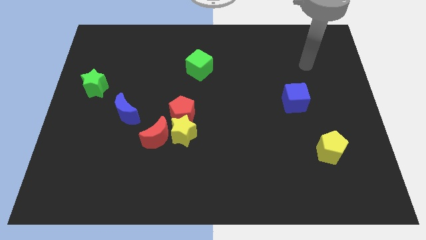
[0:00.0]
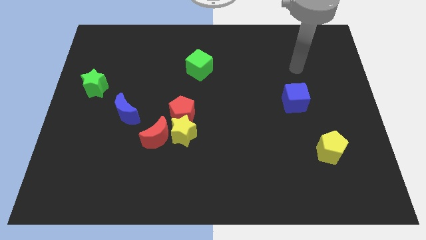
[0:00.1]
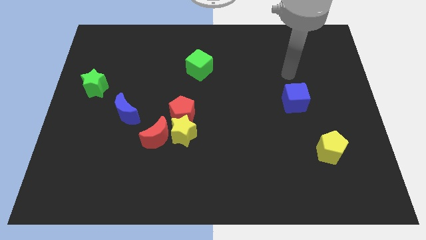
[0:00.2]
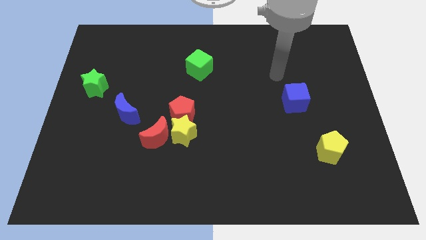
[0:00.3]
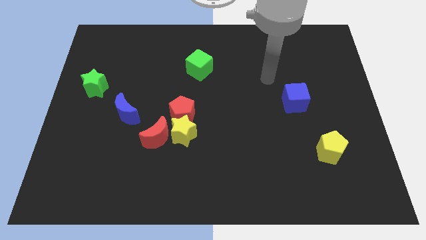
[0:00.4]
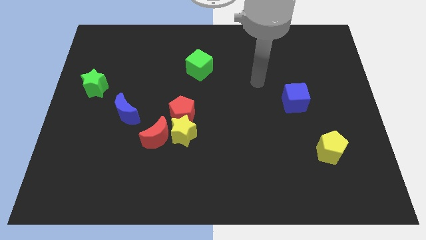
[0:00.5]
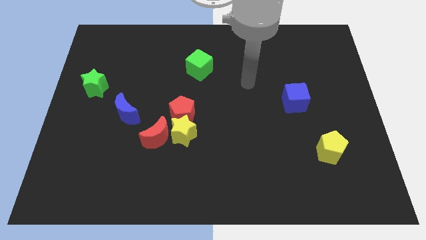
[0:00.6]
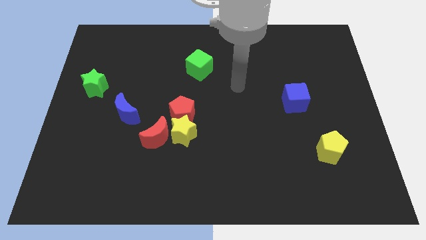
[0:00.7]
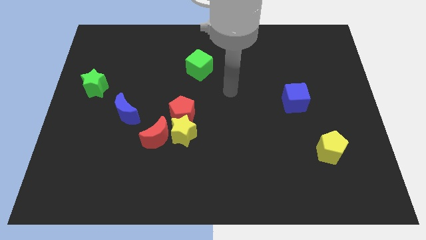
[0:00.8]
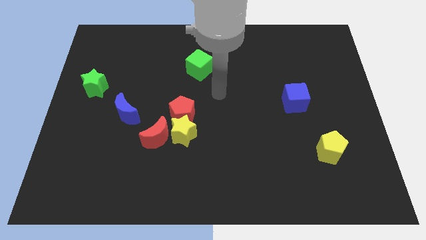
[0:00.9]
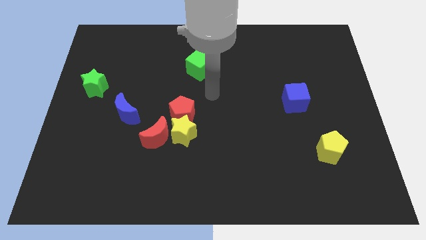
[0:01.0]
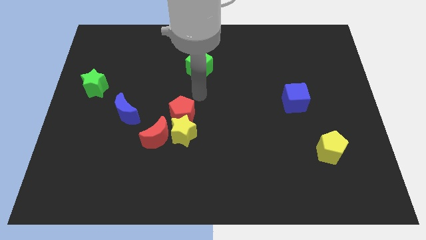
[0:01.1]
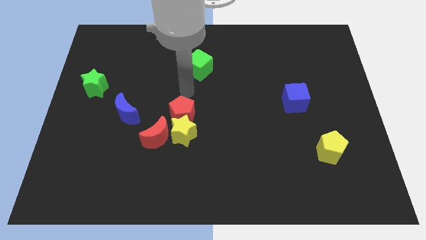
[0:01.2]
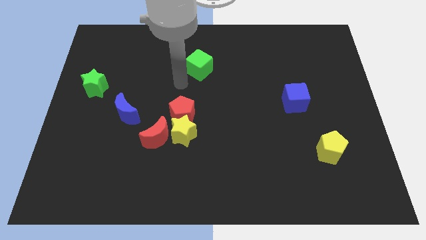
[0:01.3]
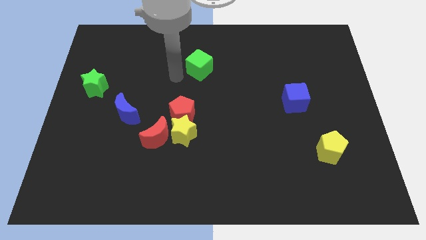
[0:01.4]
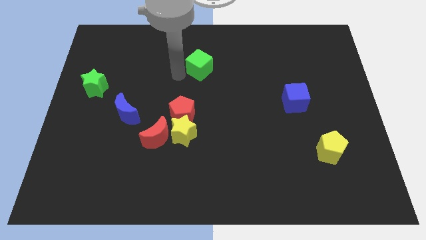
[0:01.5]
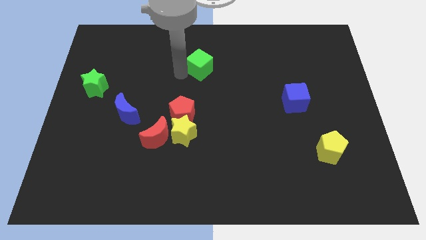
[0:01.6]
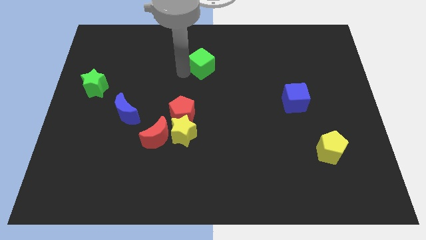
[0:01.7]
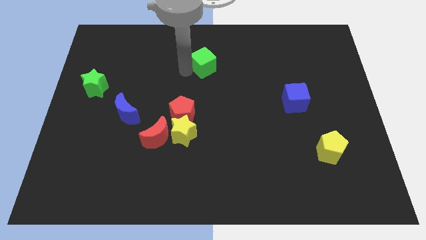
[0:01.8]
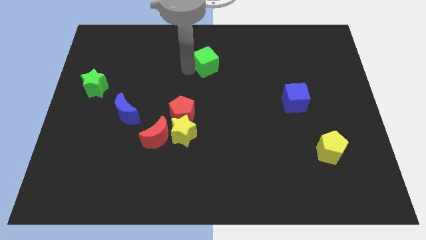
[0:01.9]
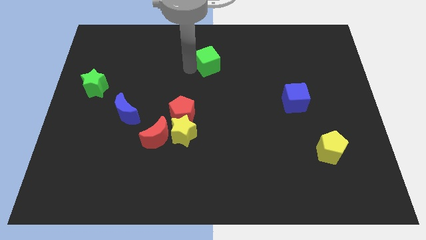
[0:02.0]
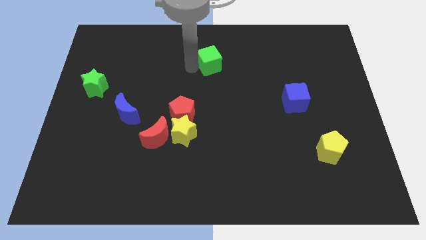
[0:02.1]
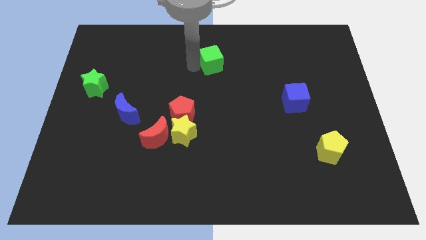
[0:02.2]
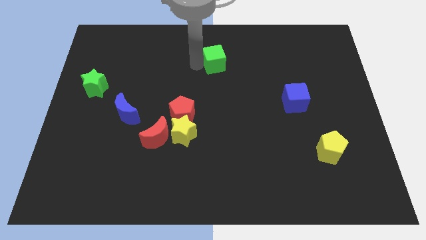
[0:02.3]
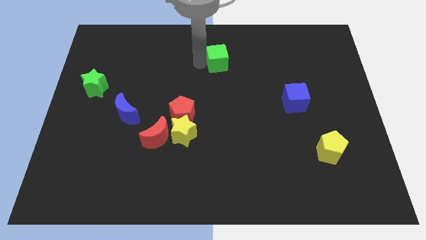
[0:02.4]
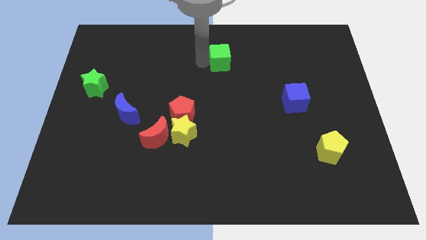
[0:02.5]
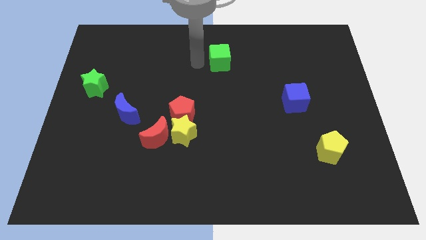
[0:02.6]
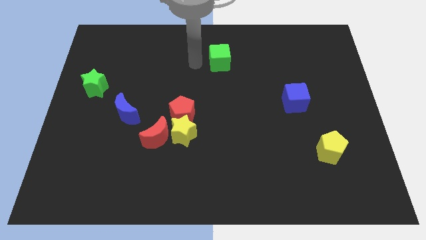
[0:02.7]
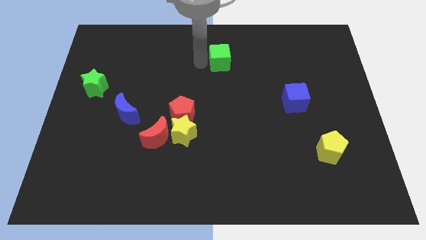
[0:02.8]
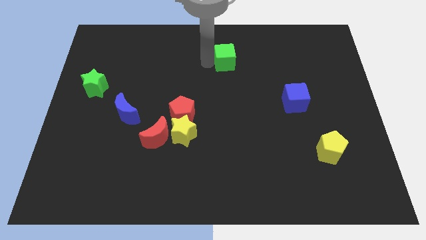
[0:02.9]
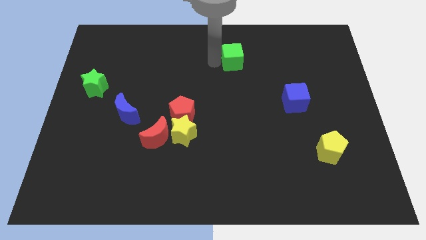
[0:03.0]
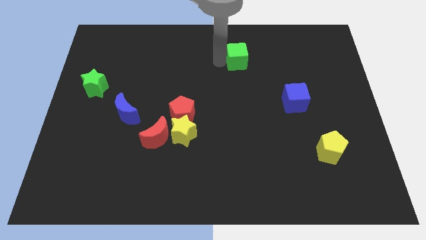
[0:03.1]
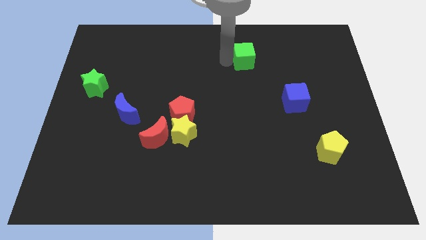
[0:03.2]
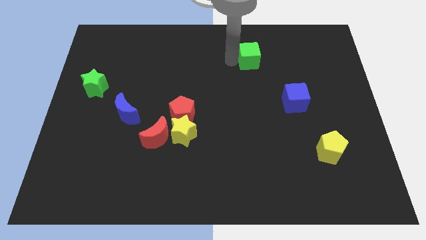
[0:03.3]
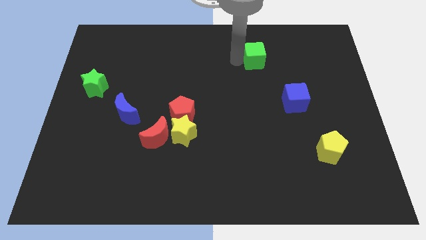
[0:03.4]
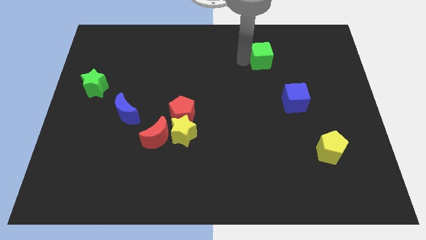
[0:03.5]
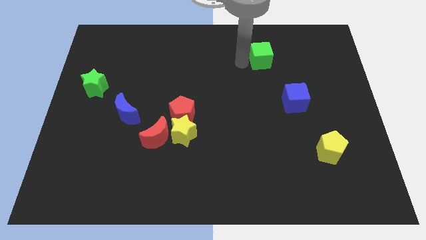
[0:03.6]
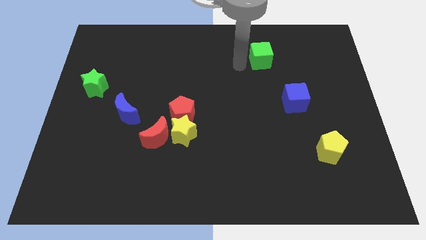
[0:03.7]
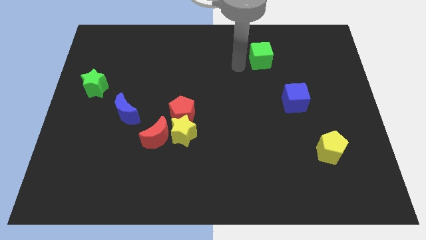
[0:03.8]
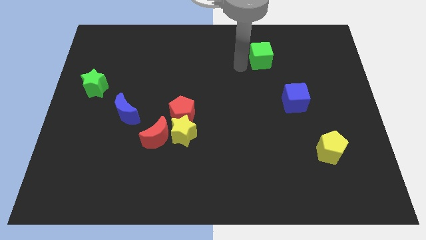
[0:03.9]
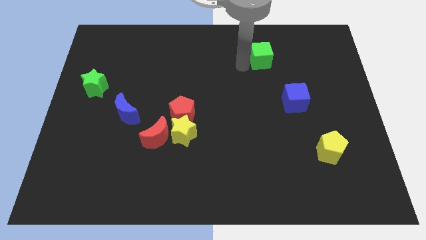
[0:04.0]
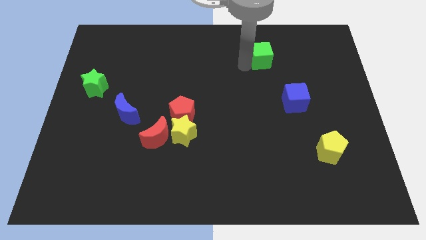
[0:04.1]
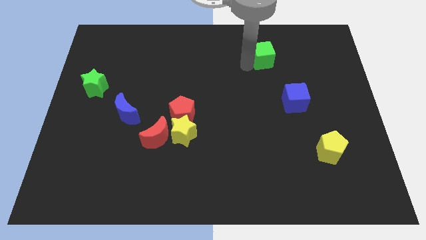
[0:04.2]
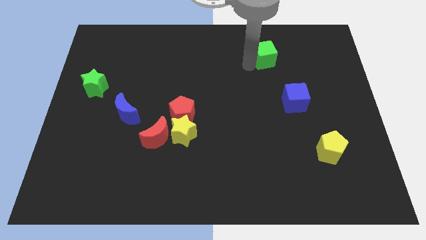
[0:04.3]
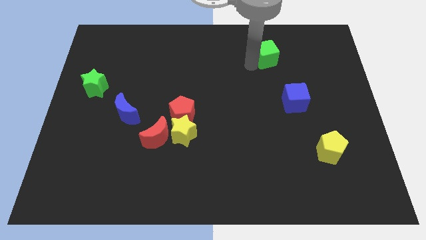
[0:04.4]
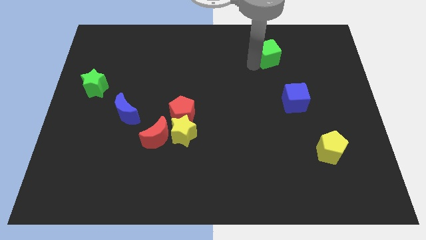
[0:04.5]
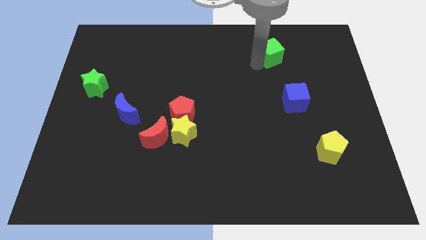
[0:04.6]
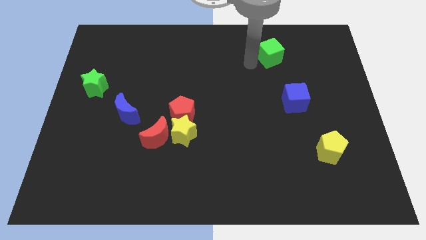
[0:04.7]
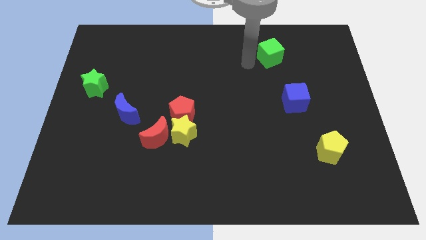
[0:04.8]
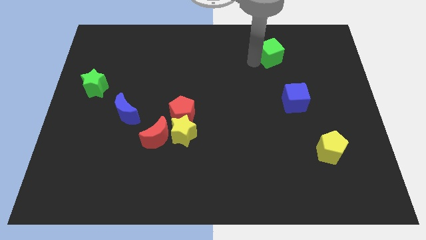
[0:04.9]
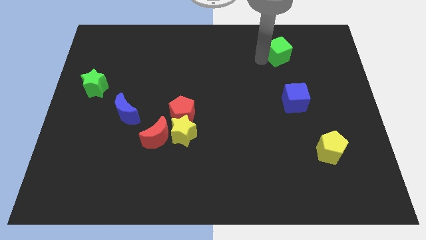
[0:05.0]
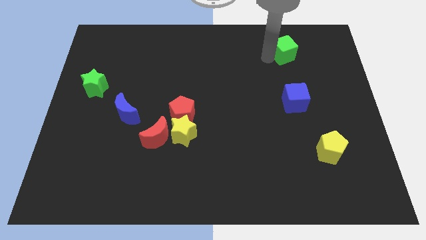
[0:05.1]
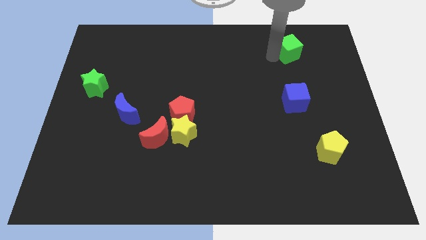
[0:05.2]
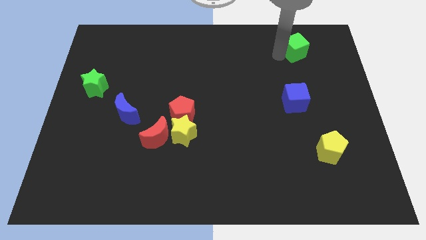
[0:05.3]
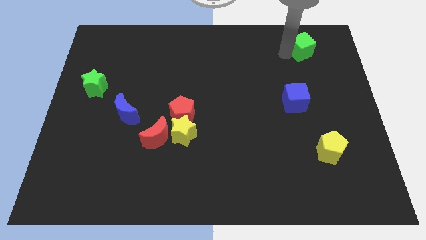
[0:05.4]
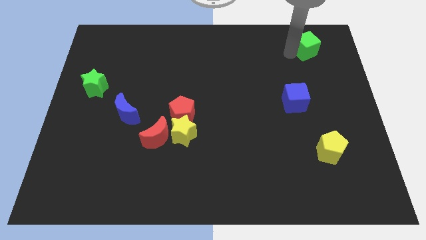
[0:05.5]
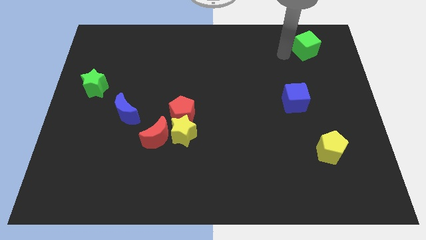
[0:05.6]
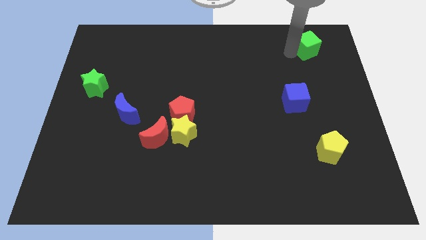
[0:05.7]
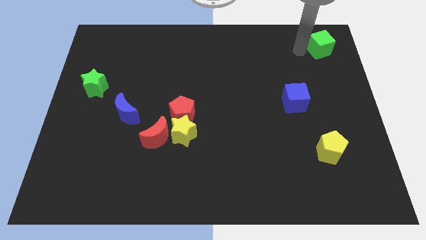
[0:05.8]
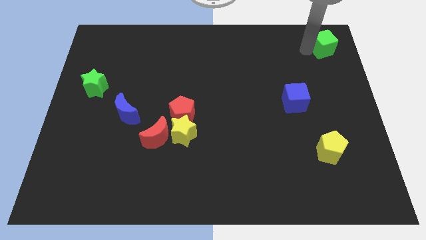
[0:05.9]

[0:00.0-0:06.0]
push the green cube to the top right corner

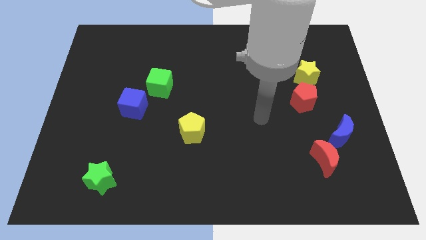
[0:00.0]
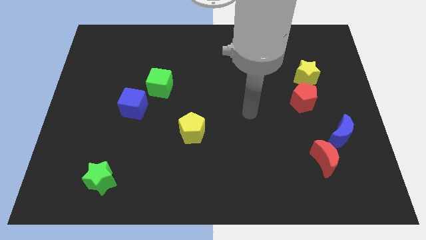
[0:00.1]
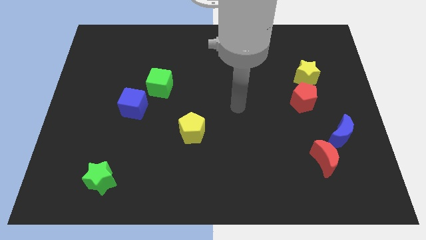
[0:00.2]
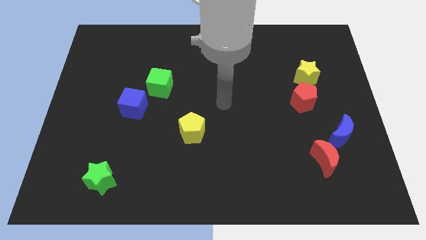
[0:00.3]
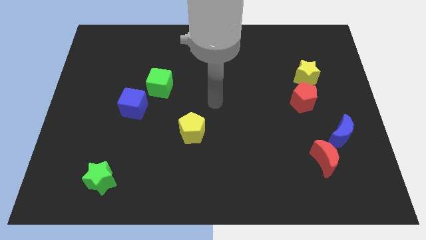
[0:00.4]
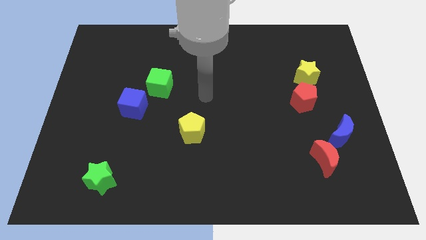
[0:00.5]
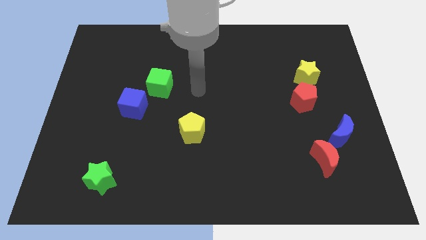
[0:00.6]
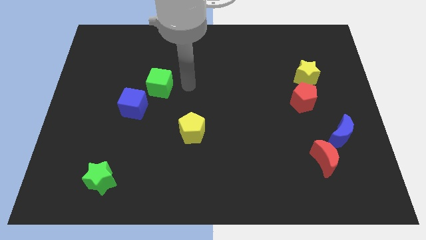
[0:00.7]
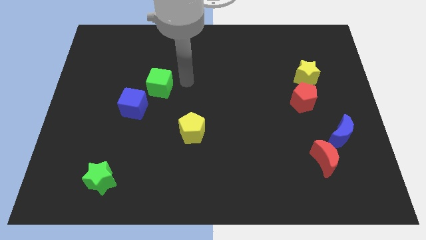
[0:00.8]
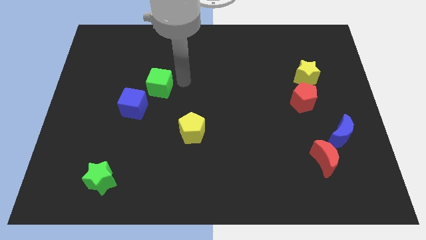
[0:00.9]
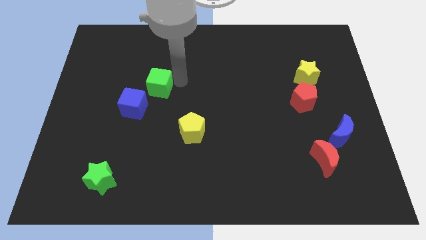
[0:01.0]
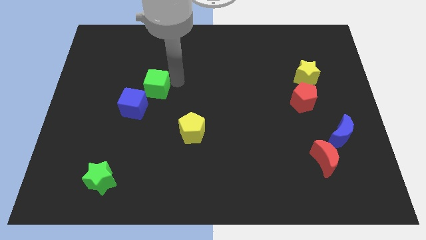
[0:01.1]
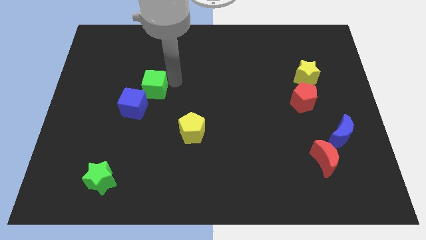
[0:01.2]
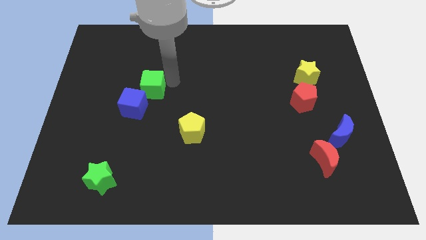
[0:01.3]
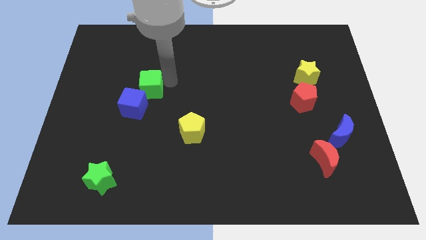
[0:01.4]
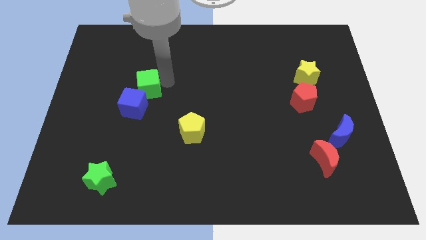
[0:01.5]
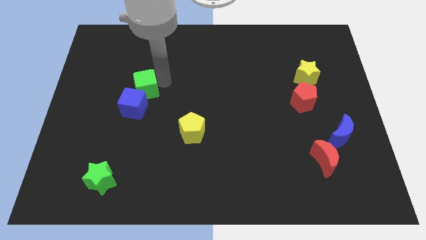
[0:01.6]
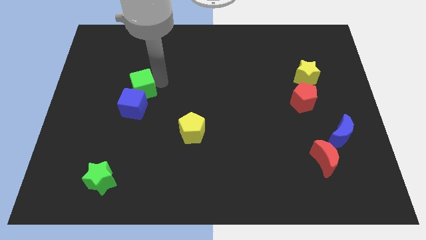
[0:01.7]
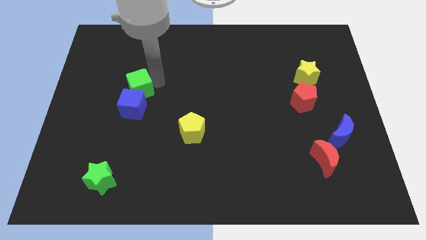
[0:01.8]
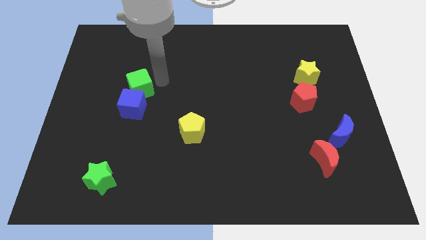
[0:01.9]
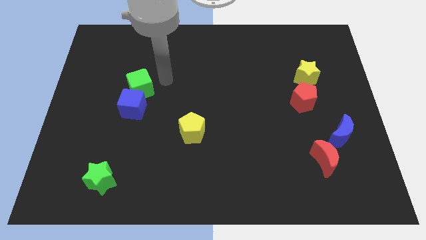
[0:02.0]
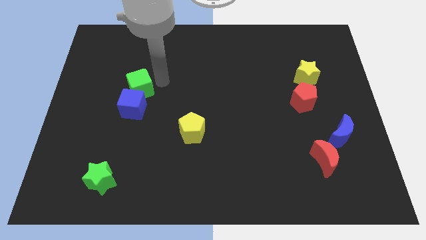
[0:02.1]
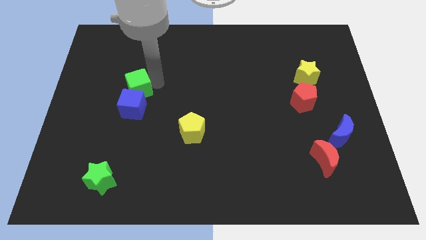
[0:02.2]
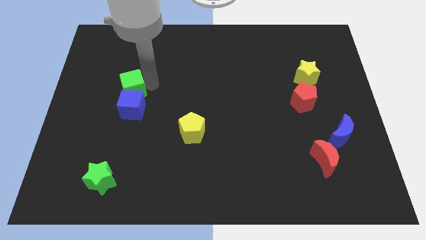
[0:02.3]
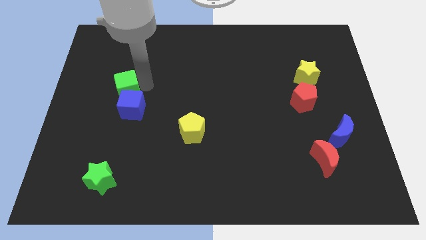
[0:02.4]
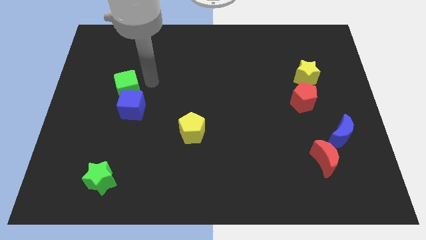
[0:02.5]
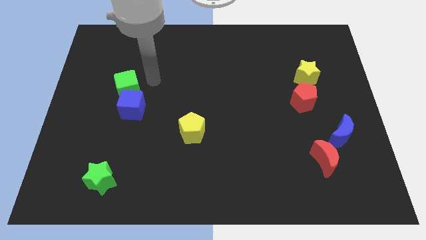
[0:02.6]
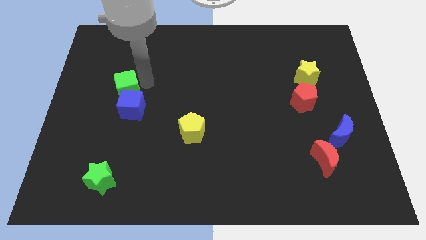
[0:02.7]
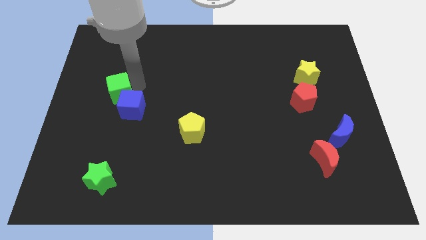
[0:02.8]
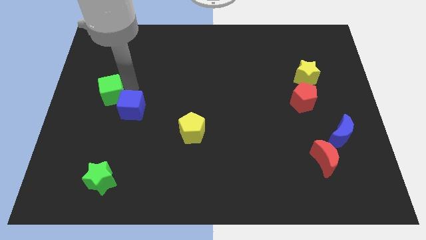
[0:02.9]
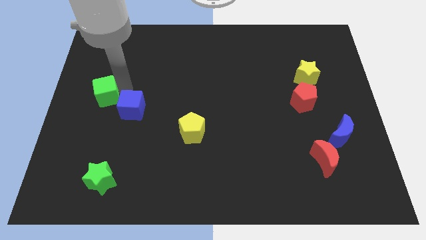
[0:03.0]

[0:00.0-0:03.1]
slide the green cube to the left side
